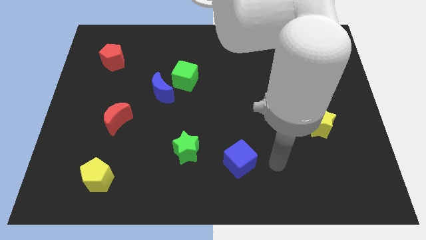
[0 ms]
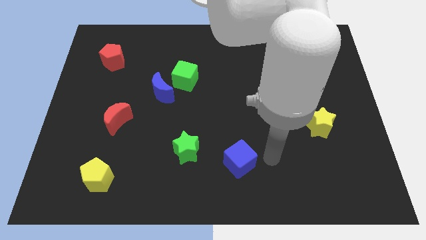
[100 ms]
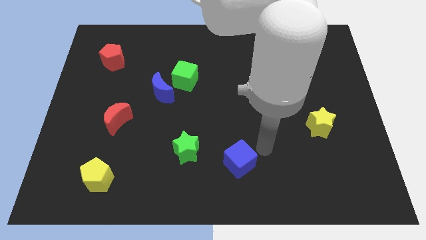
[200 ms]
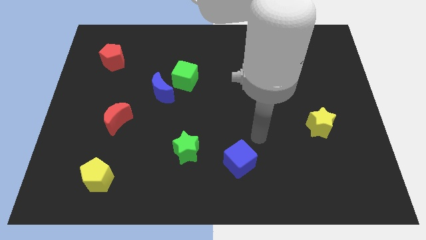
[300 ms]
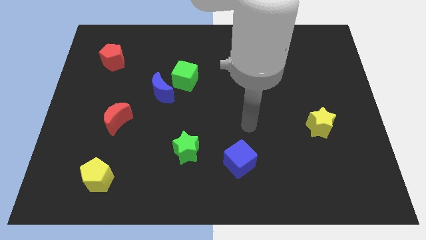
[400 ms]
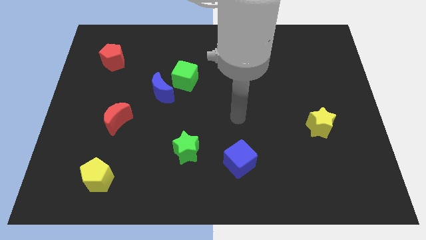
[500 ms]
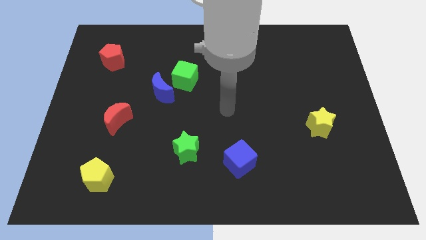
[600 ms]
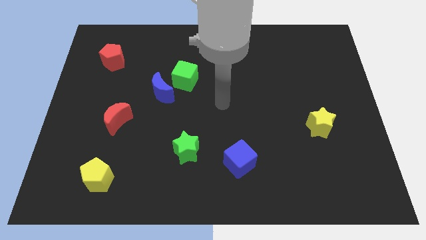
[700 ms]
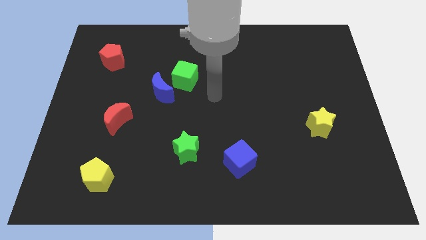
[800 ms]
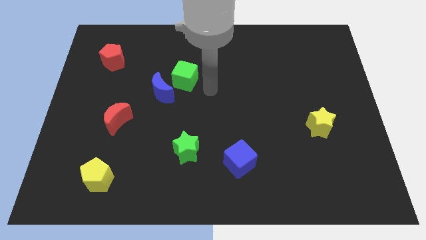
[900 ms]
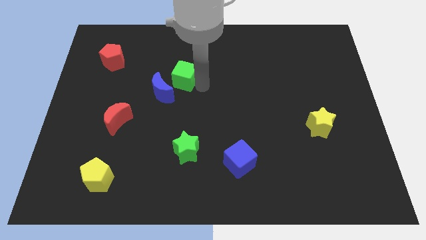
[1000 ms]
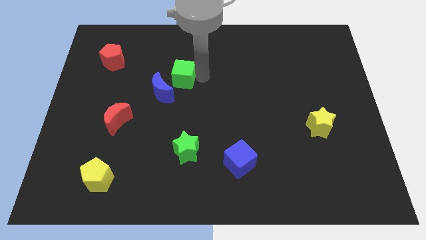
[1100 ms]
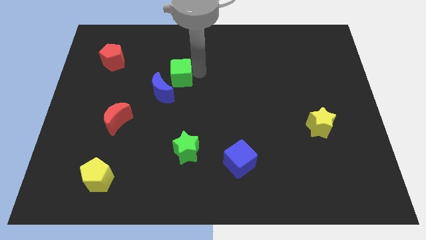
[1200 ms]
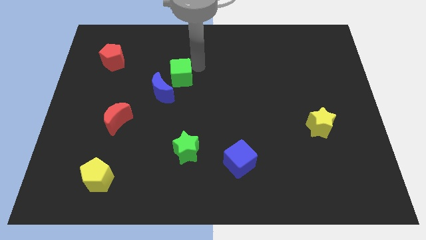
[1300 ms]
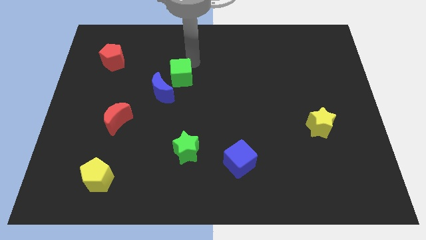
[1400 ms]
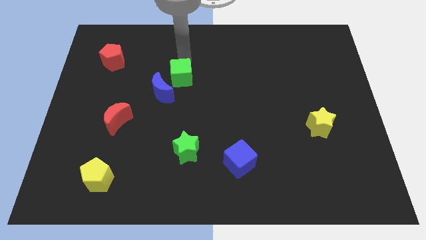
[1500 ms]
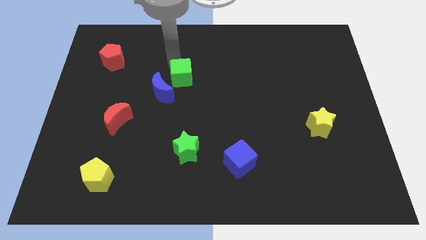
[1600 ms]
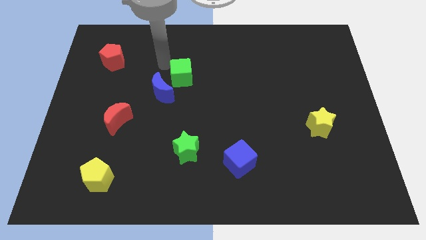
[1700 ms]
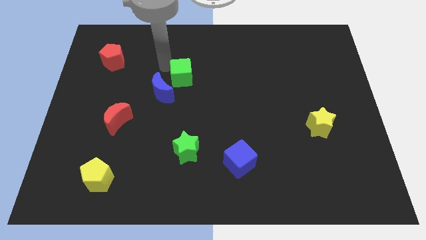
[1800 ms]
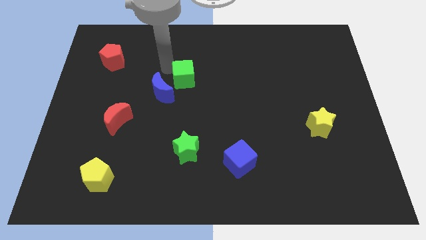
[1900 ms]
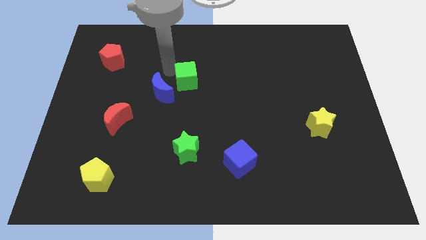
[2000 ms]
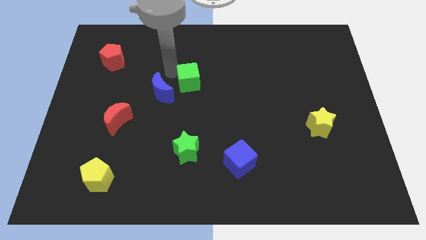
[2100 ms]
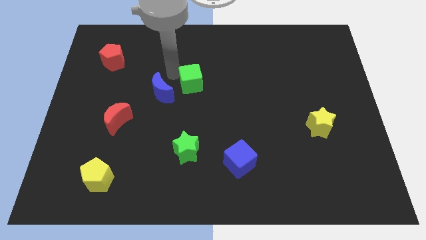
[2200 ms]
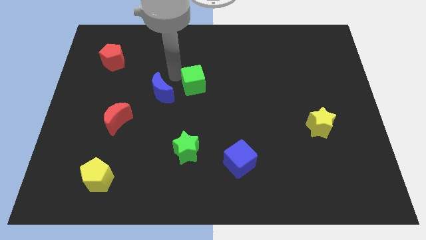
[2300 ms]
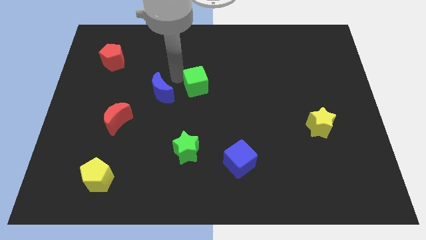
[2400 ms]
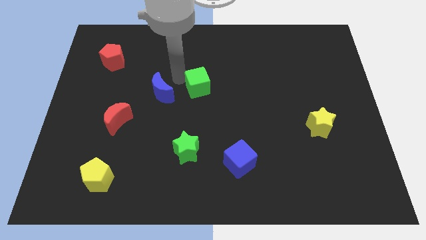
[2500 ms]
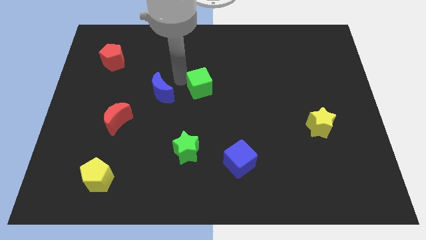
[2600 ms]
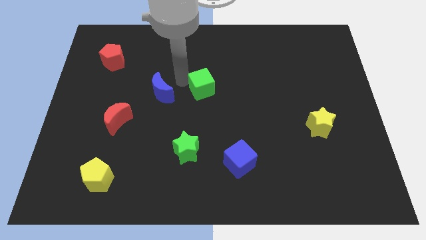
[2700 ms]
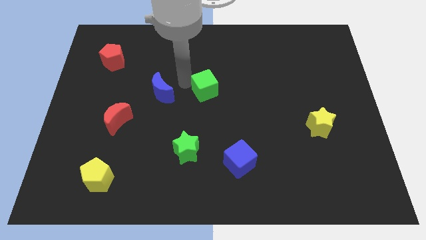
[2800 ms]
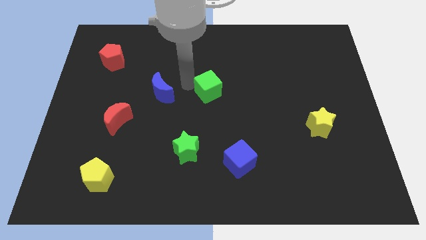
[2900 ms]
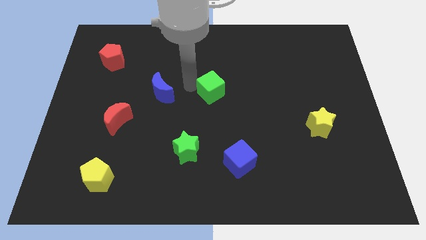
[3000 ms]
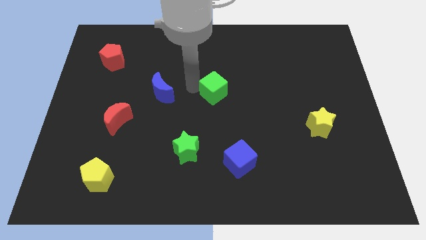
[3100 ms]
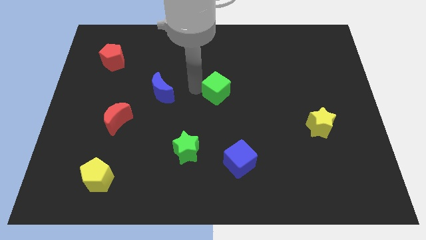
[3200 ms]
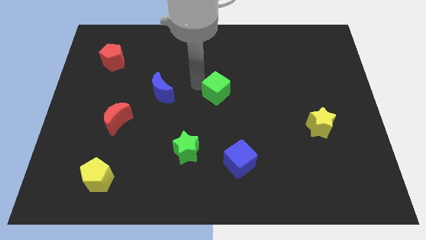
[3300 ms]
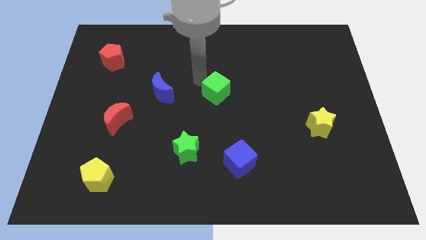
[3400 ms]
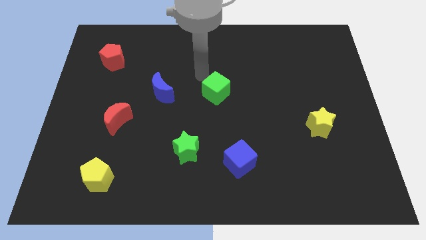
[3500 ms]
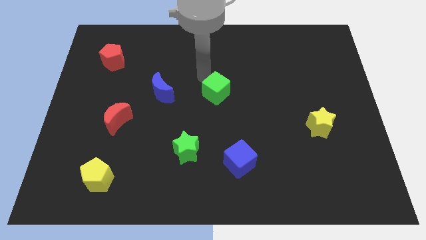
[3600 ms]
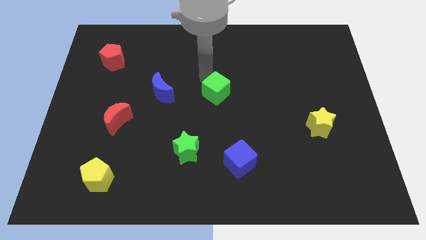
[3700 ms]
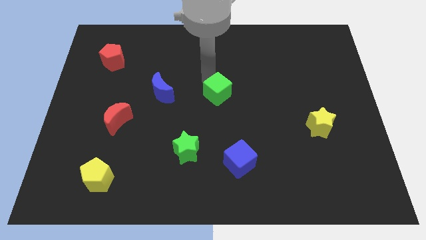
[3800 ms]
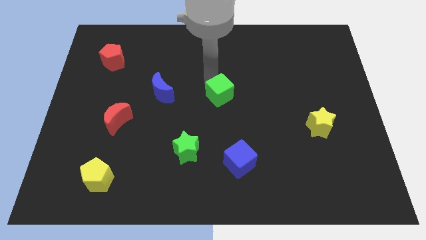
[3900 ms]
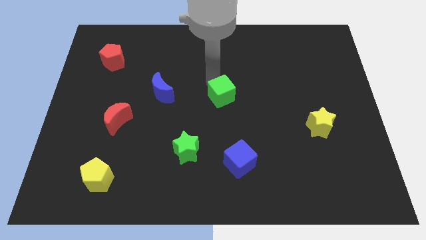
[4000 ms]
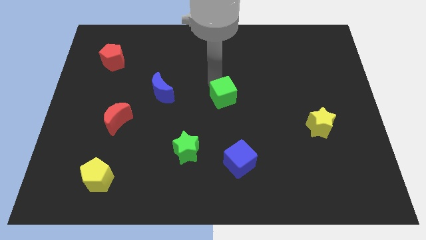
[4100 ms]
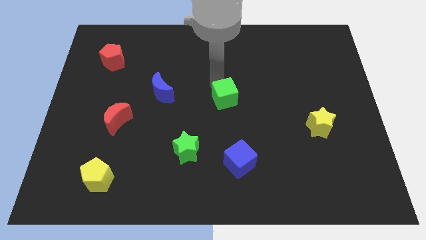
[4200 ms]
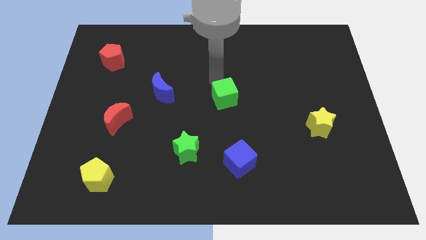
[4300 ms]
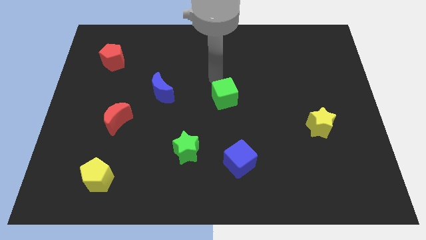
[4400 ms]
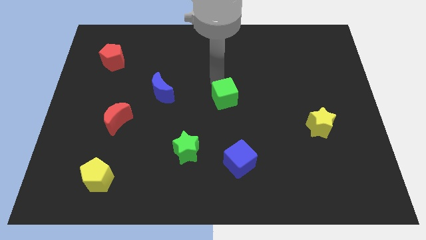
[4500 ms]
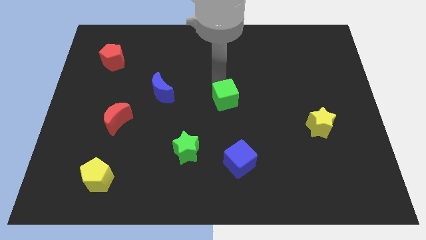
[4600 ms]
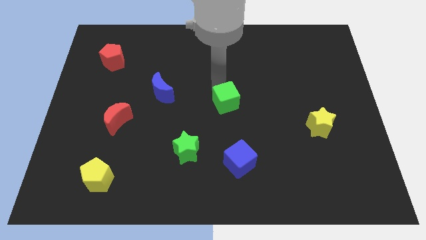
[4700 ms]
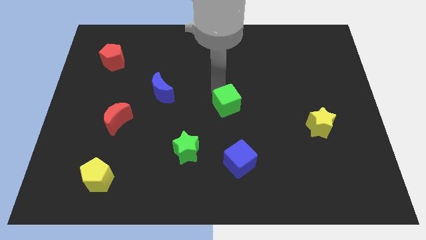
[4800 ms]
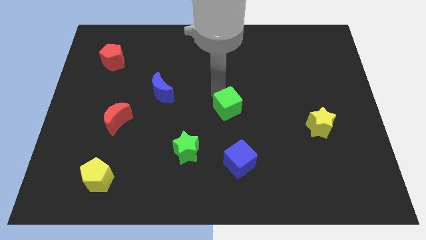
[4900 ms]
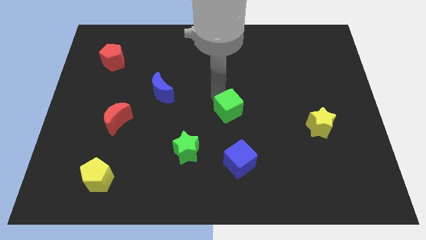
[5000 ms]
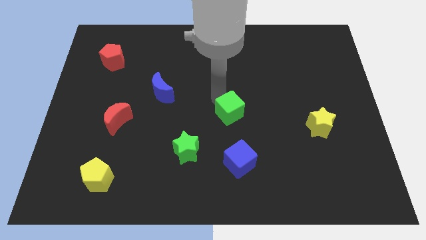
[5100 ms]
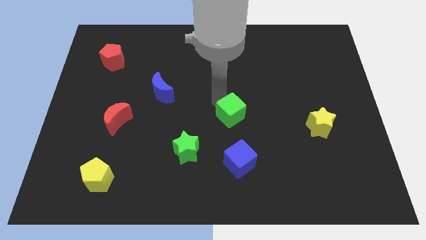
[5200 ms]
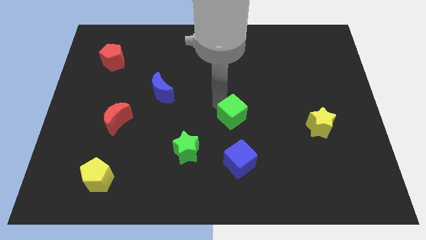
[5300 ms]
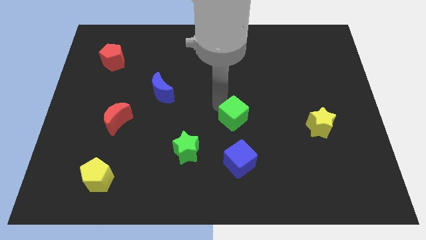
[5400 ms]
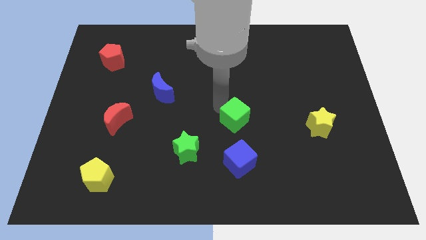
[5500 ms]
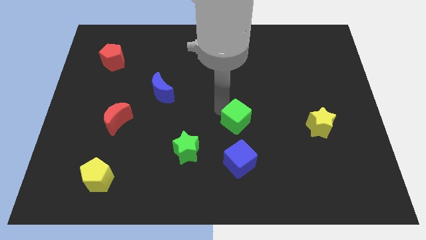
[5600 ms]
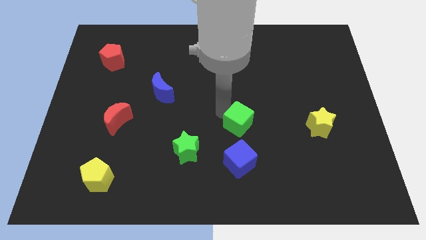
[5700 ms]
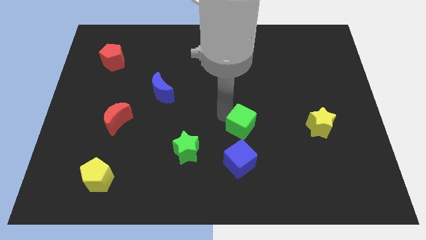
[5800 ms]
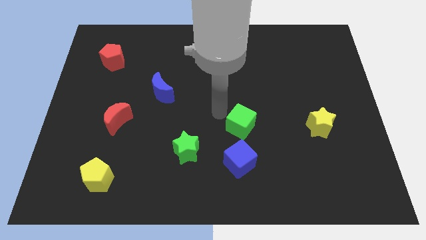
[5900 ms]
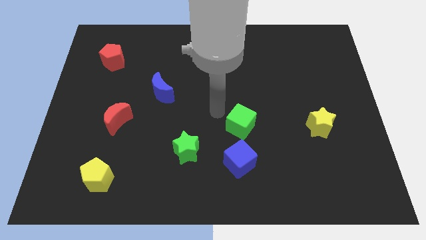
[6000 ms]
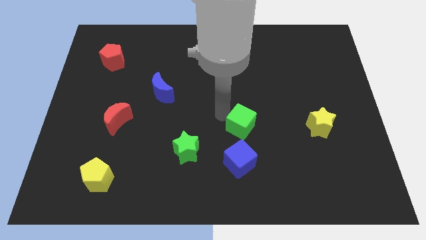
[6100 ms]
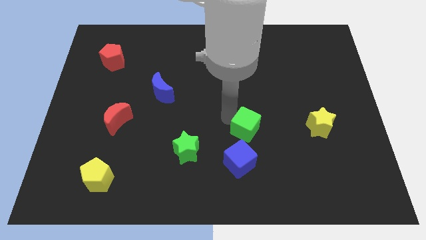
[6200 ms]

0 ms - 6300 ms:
slide the green cube down and to the right diagonally

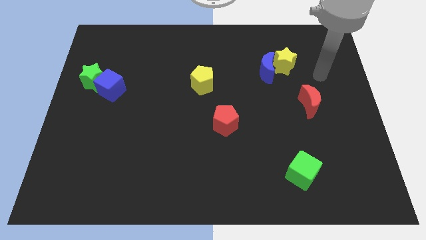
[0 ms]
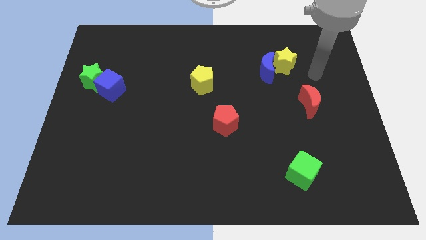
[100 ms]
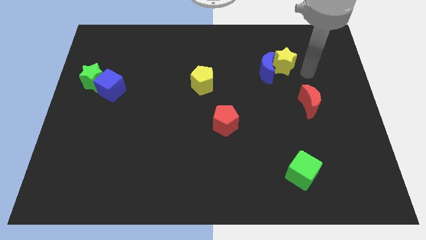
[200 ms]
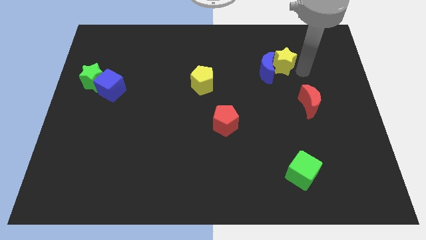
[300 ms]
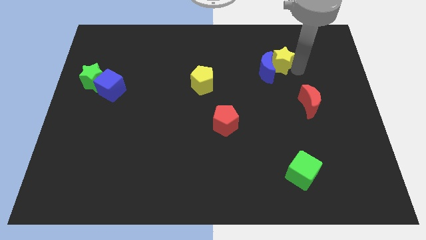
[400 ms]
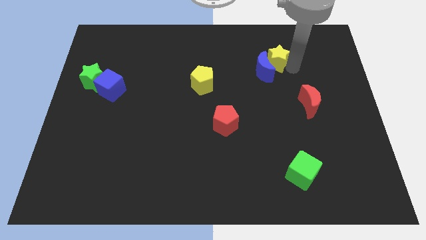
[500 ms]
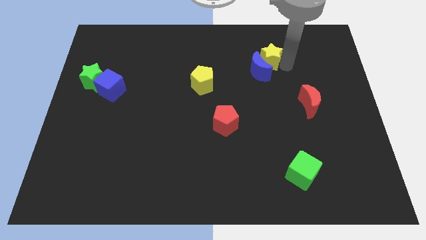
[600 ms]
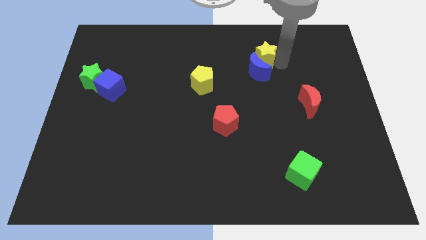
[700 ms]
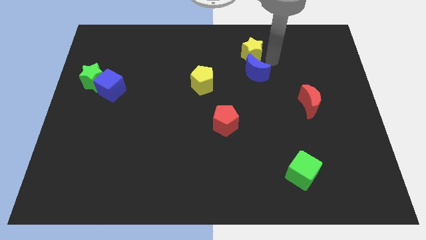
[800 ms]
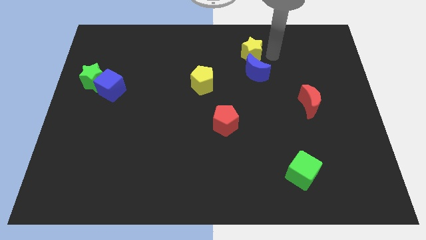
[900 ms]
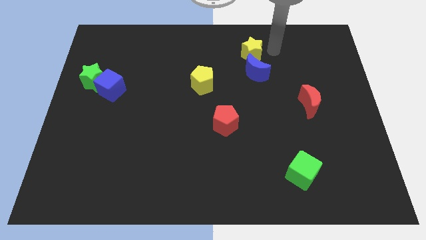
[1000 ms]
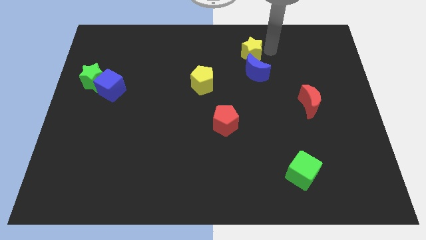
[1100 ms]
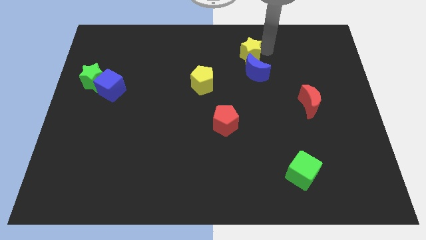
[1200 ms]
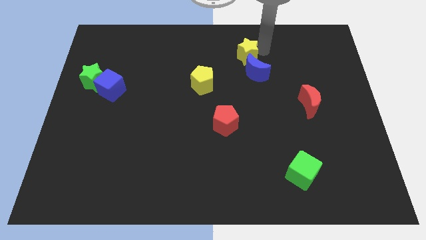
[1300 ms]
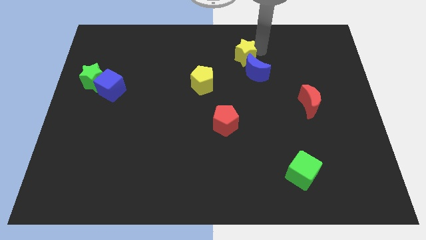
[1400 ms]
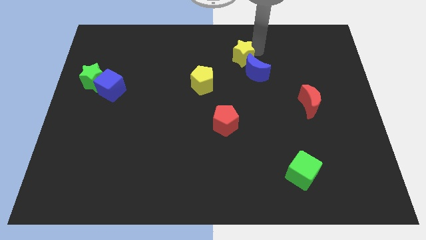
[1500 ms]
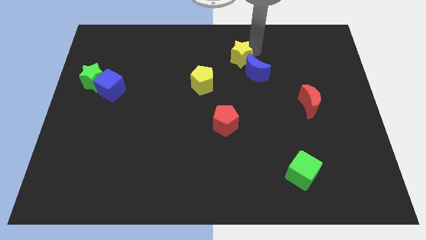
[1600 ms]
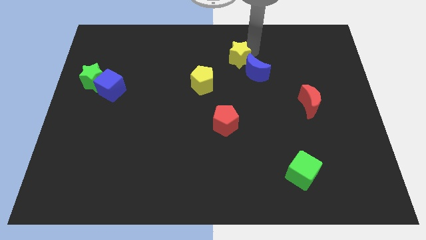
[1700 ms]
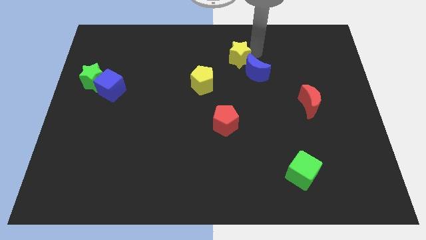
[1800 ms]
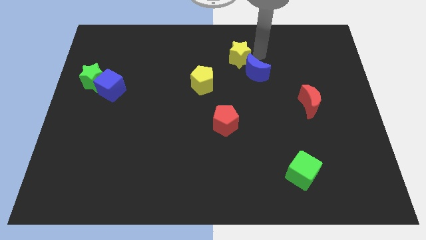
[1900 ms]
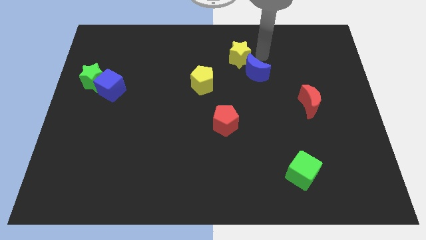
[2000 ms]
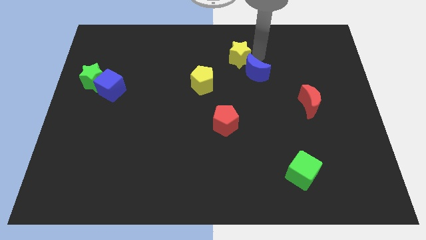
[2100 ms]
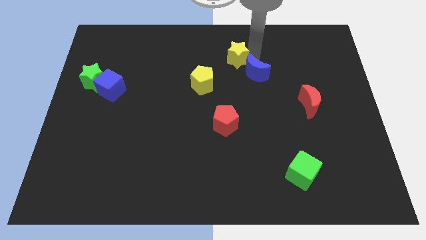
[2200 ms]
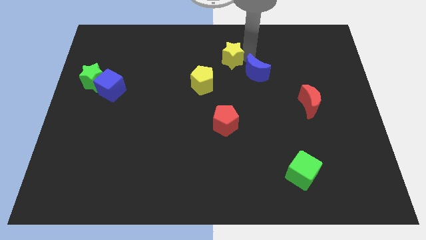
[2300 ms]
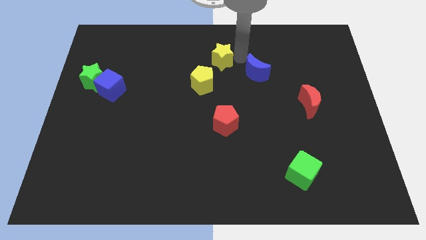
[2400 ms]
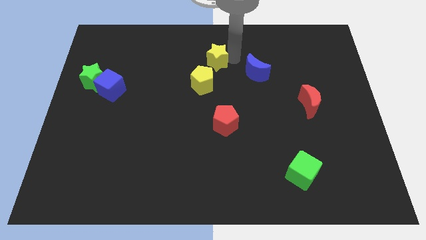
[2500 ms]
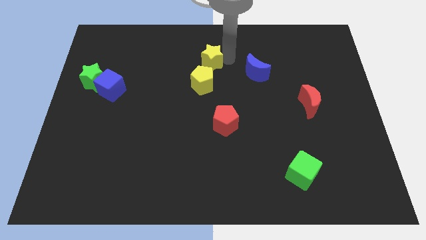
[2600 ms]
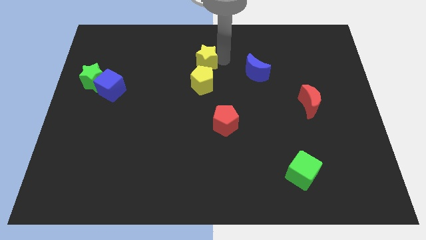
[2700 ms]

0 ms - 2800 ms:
slide the yellow star left
